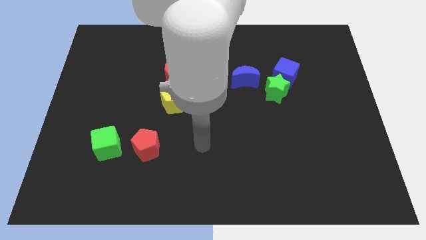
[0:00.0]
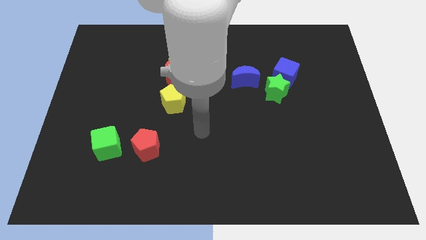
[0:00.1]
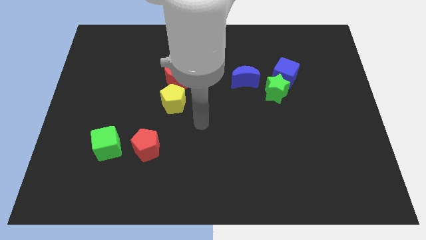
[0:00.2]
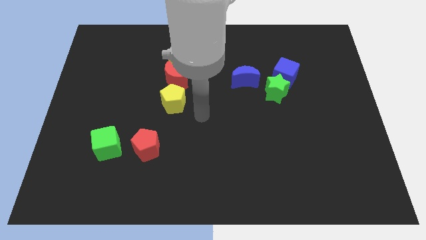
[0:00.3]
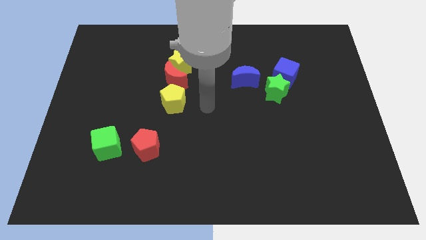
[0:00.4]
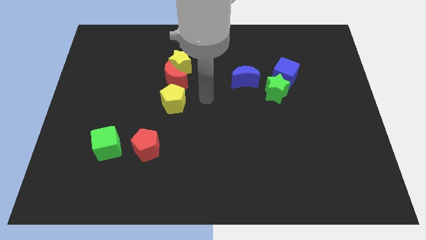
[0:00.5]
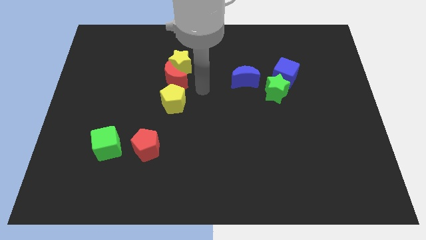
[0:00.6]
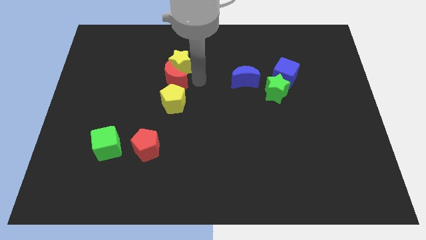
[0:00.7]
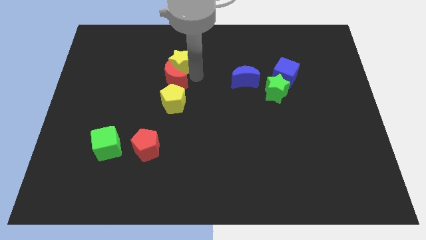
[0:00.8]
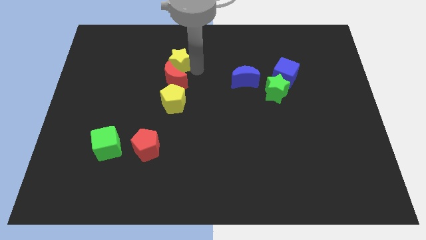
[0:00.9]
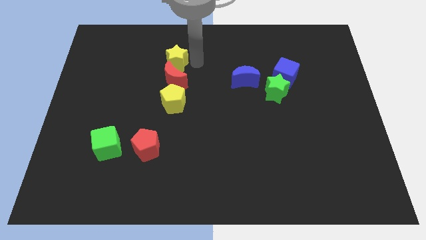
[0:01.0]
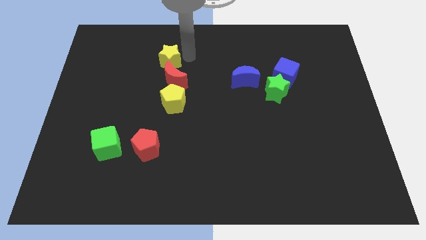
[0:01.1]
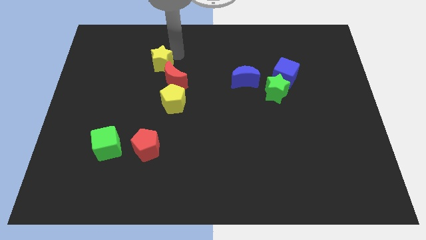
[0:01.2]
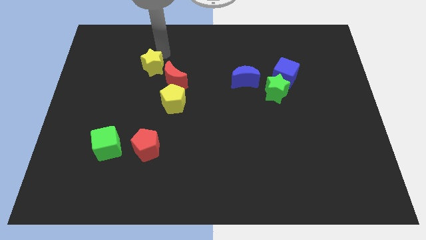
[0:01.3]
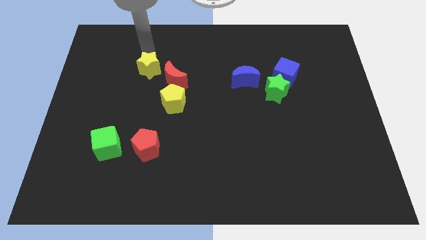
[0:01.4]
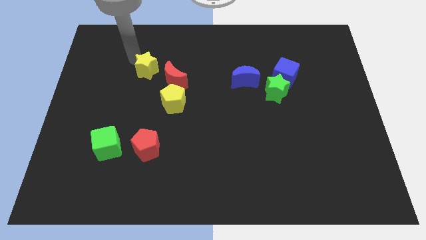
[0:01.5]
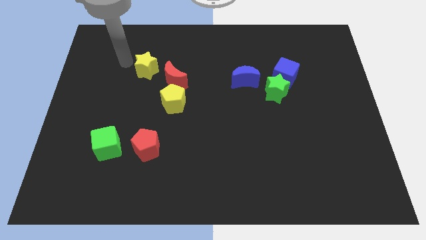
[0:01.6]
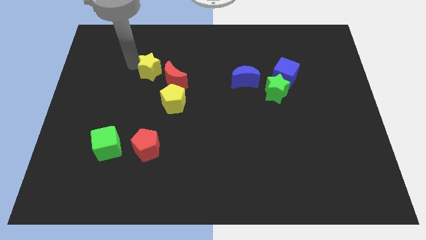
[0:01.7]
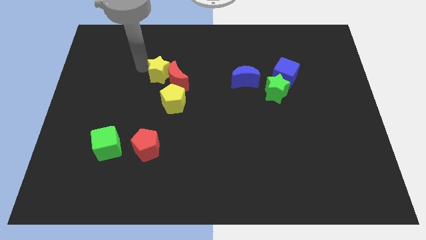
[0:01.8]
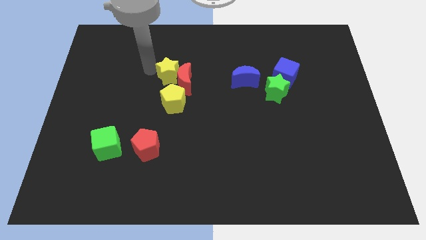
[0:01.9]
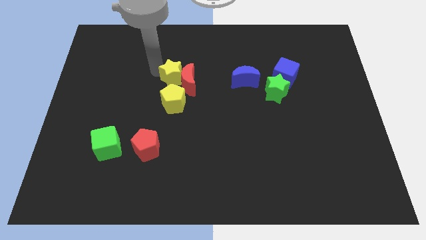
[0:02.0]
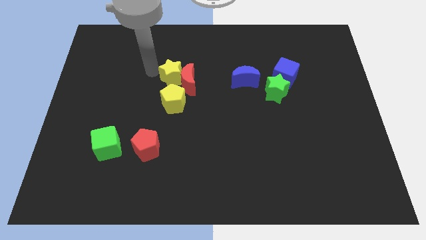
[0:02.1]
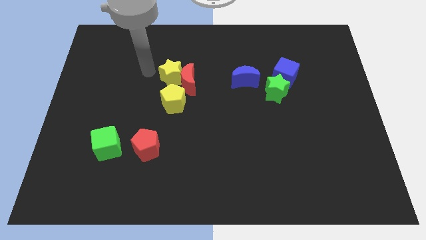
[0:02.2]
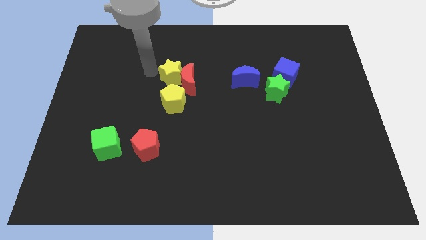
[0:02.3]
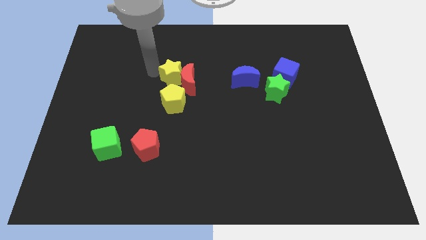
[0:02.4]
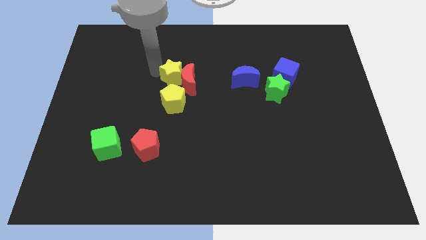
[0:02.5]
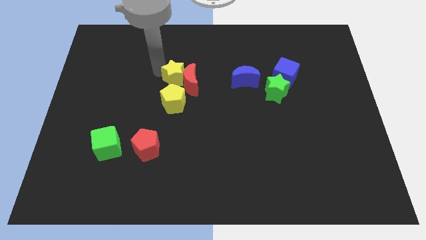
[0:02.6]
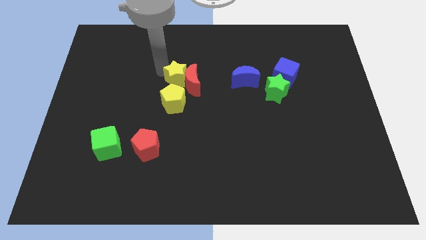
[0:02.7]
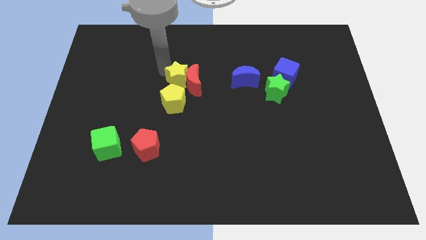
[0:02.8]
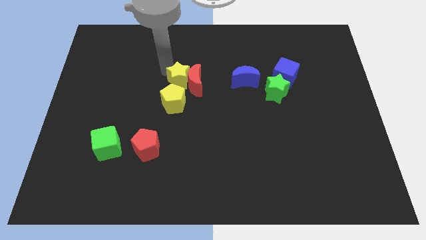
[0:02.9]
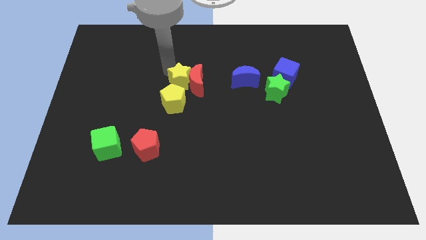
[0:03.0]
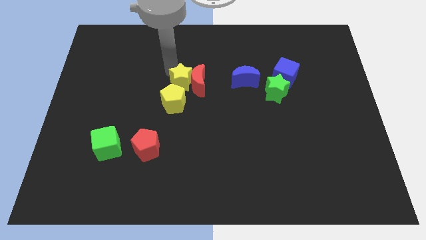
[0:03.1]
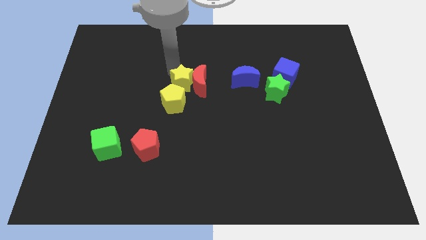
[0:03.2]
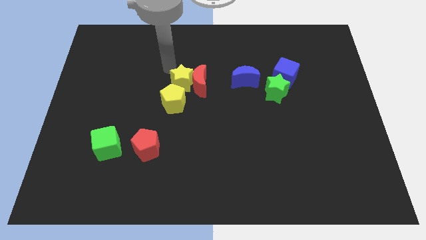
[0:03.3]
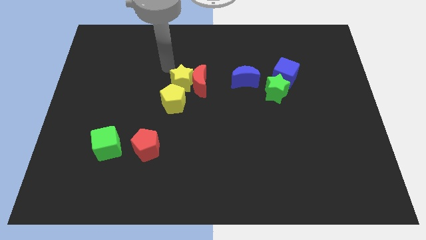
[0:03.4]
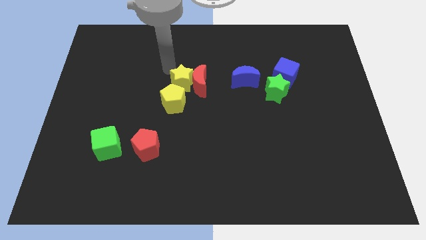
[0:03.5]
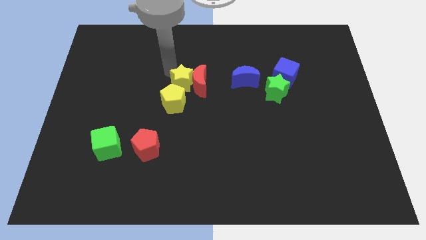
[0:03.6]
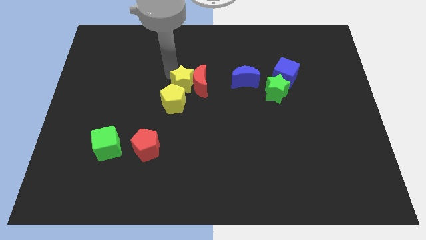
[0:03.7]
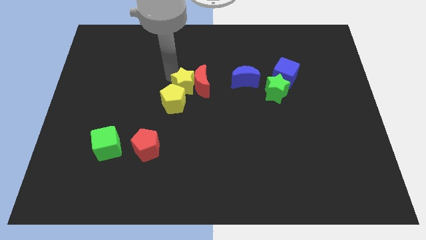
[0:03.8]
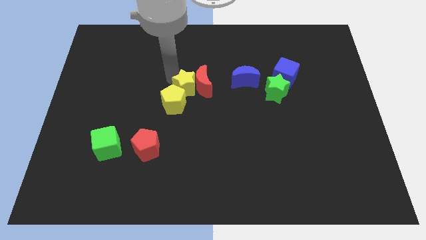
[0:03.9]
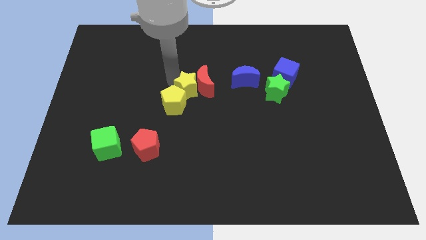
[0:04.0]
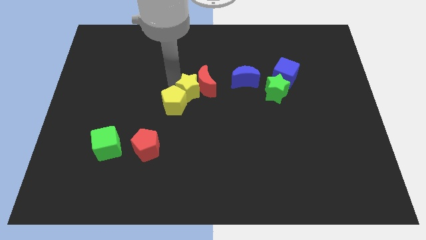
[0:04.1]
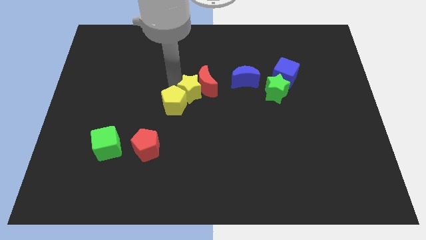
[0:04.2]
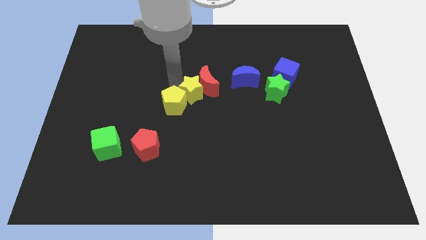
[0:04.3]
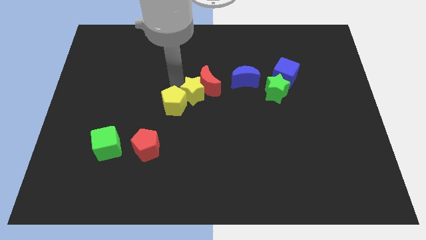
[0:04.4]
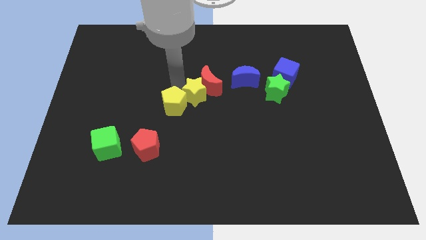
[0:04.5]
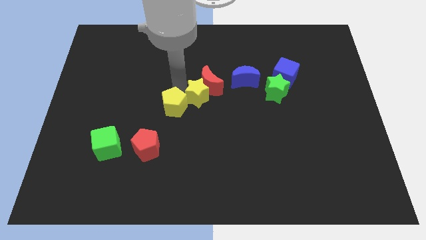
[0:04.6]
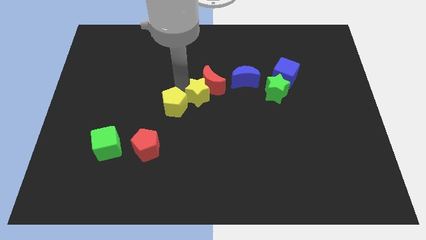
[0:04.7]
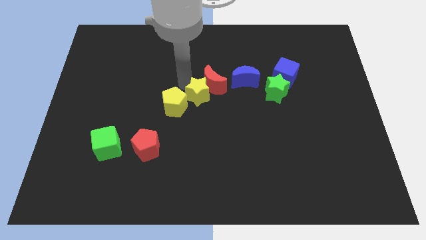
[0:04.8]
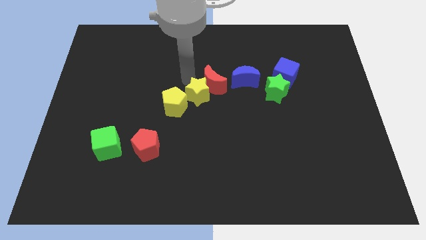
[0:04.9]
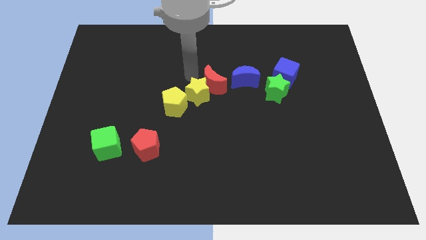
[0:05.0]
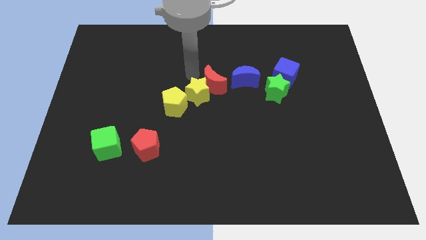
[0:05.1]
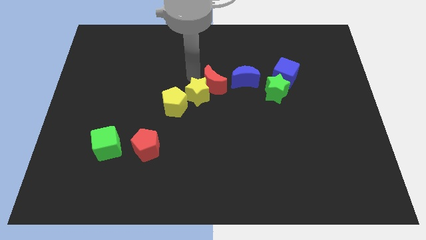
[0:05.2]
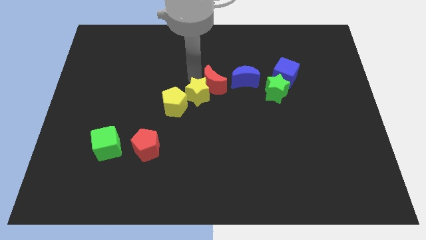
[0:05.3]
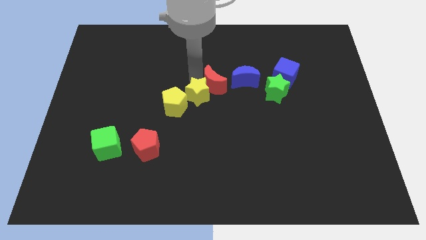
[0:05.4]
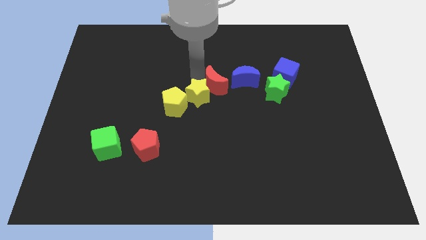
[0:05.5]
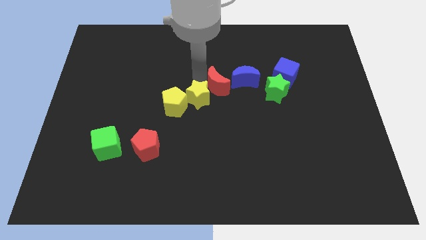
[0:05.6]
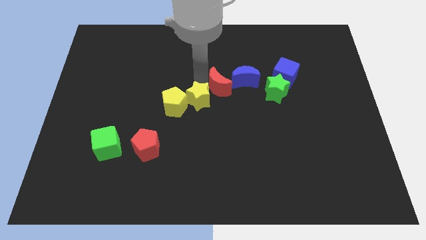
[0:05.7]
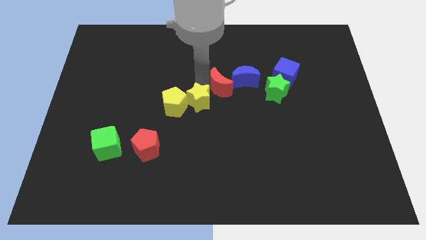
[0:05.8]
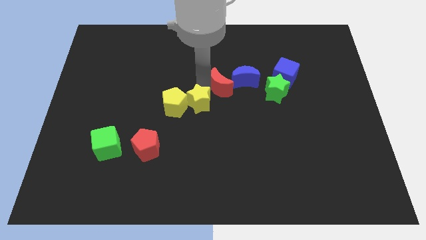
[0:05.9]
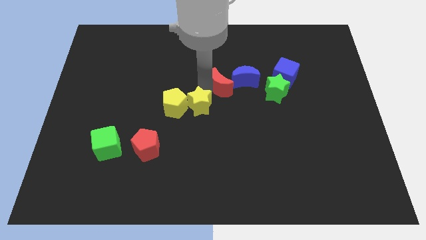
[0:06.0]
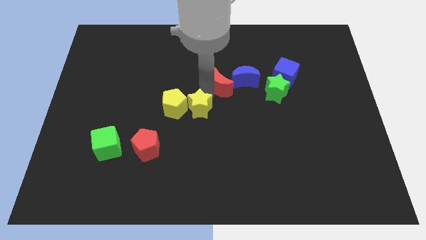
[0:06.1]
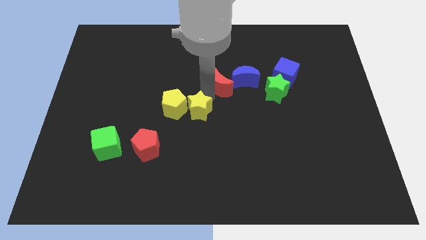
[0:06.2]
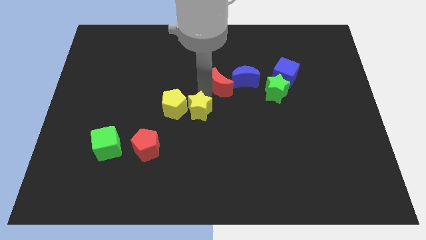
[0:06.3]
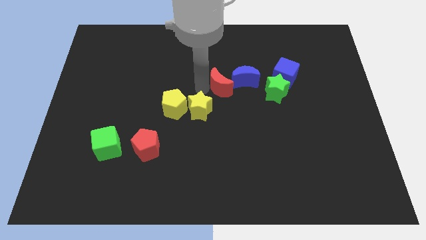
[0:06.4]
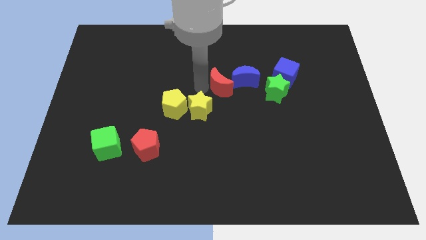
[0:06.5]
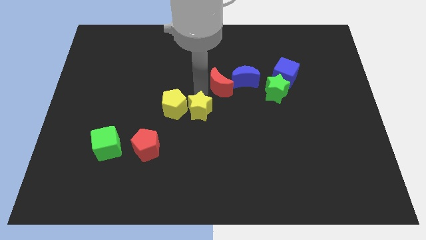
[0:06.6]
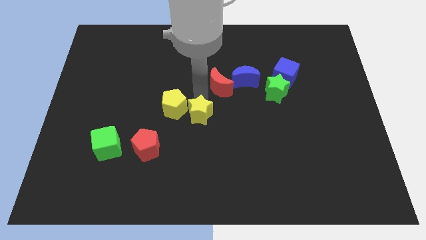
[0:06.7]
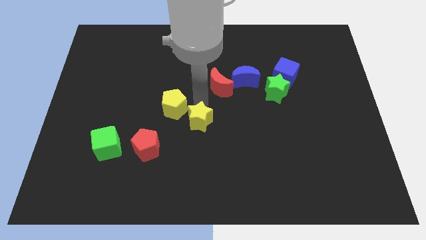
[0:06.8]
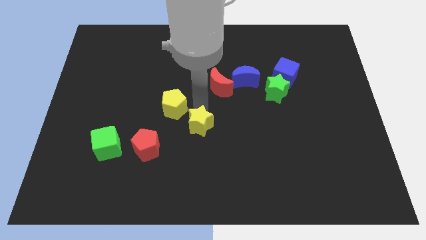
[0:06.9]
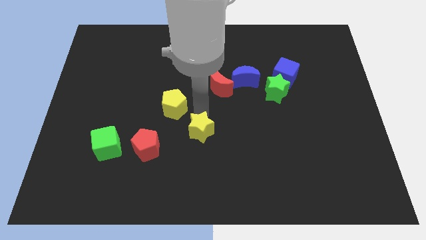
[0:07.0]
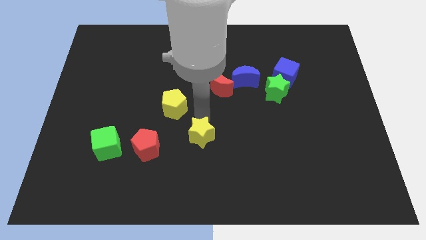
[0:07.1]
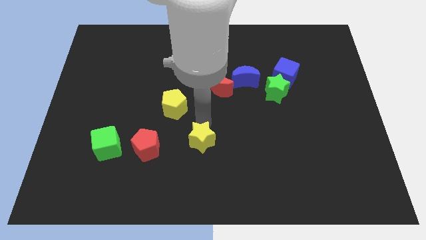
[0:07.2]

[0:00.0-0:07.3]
push the yellow star down

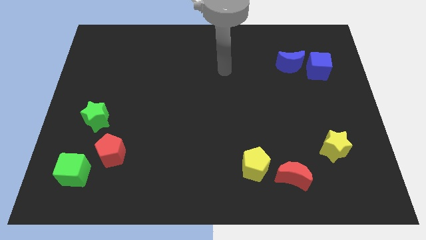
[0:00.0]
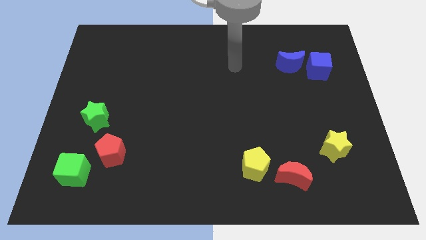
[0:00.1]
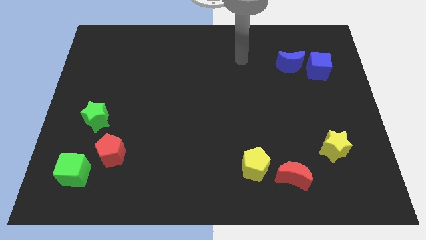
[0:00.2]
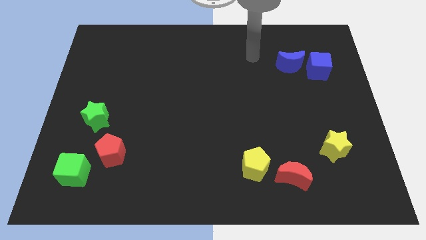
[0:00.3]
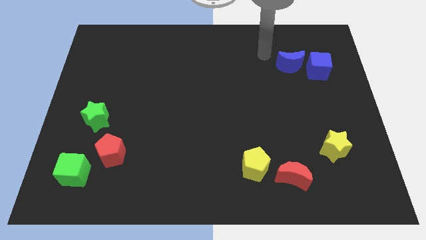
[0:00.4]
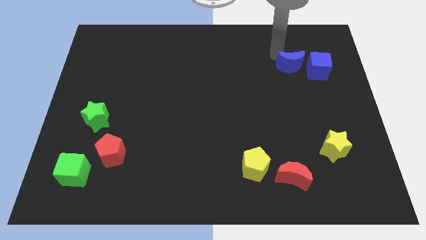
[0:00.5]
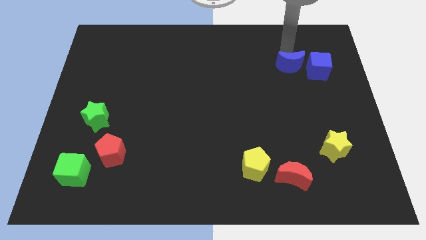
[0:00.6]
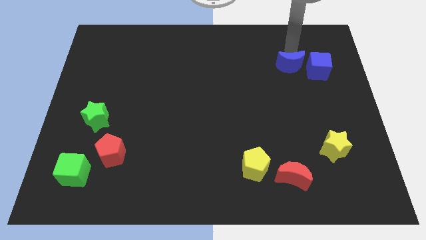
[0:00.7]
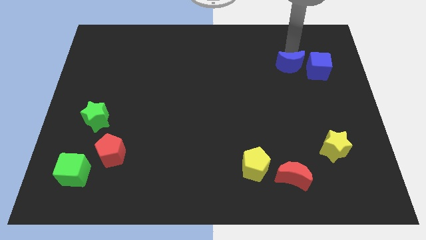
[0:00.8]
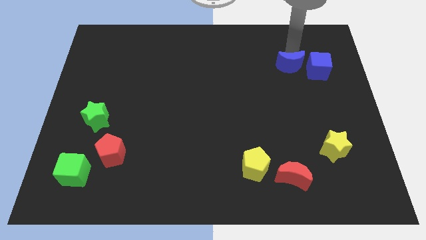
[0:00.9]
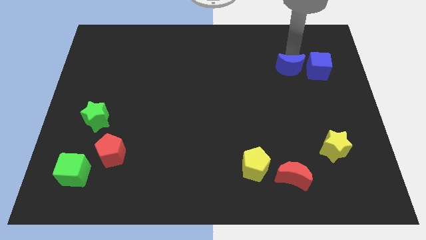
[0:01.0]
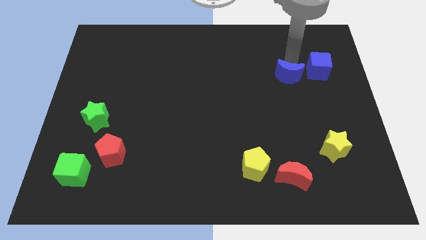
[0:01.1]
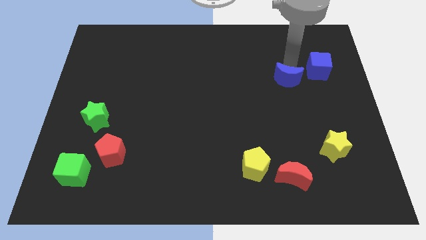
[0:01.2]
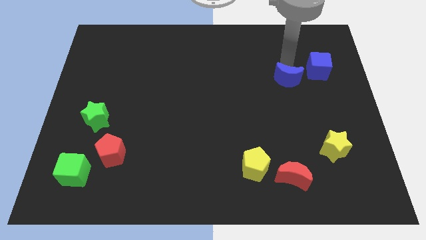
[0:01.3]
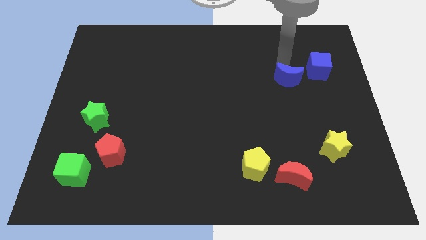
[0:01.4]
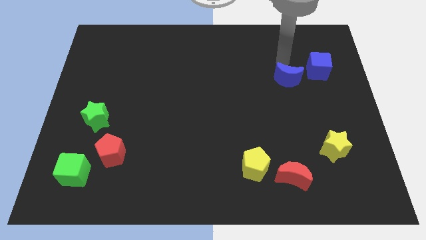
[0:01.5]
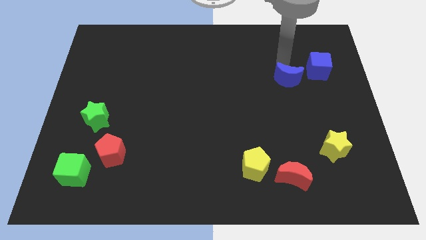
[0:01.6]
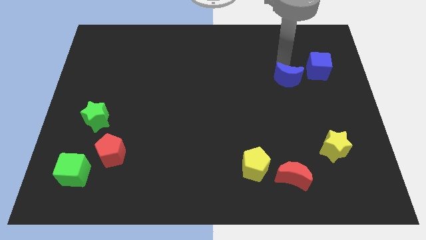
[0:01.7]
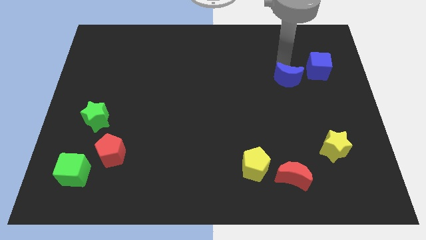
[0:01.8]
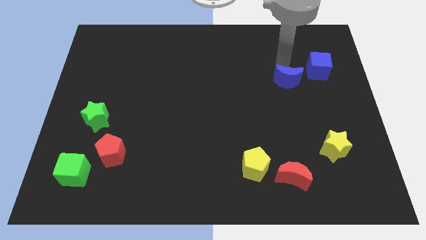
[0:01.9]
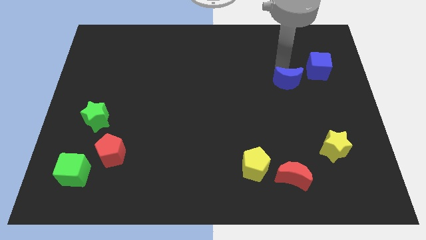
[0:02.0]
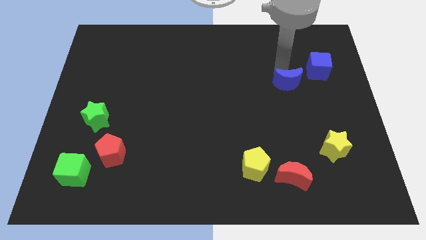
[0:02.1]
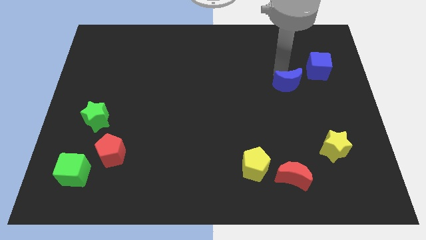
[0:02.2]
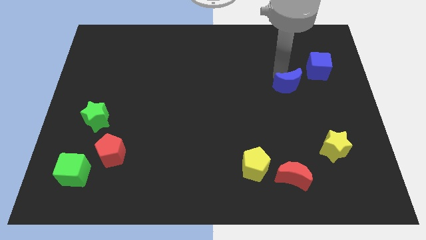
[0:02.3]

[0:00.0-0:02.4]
push the blue moon downwards somewhat
